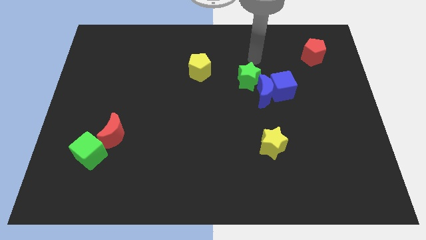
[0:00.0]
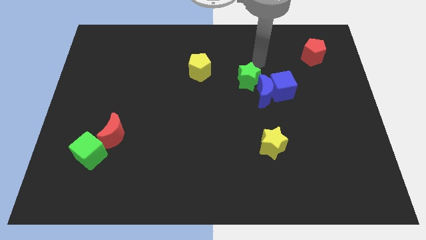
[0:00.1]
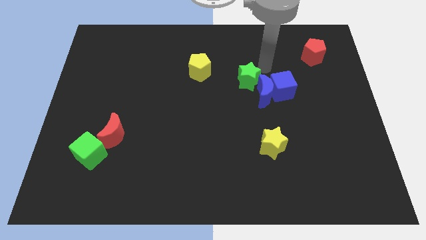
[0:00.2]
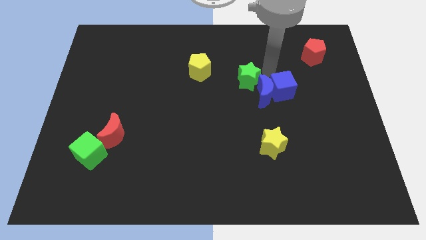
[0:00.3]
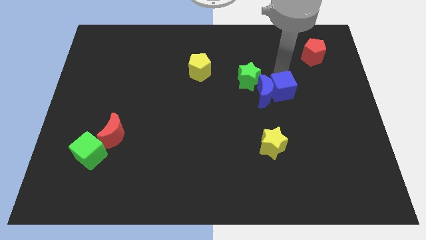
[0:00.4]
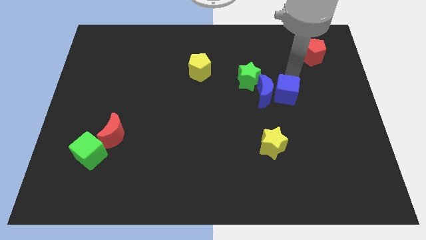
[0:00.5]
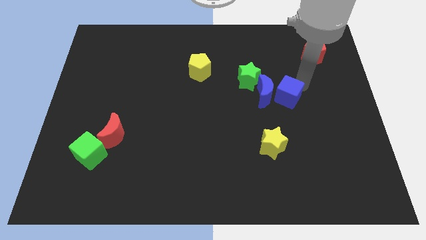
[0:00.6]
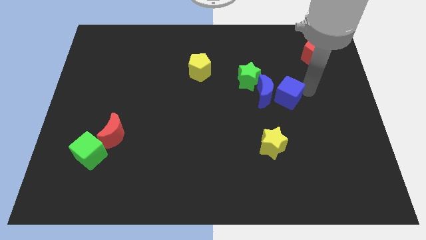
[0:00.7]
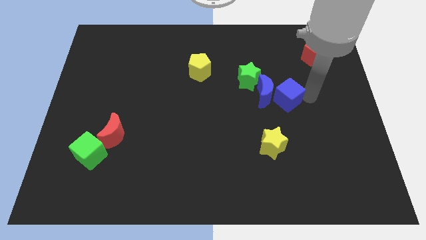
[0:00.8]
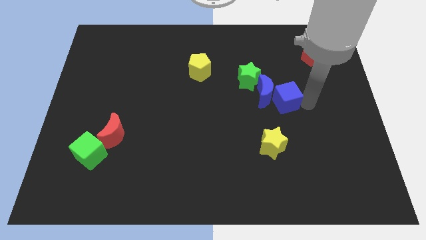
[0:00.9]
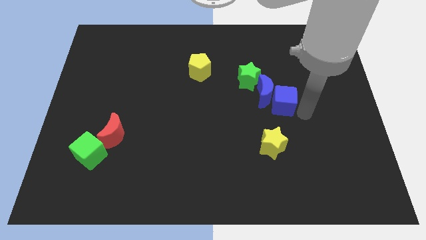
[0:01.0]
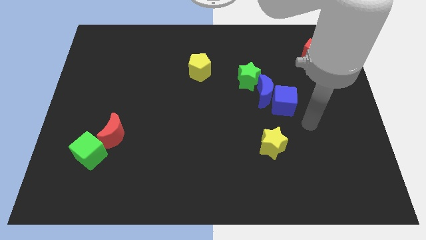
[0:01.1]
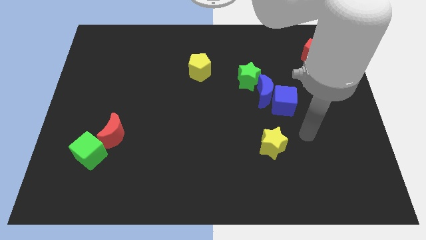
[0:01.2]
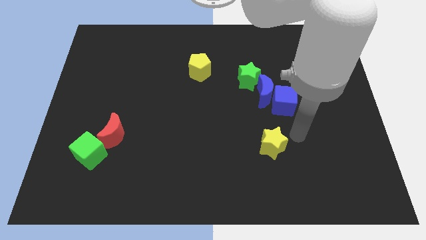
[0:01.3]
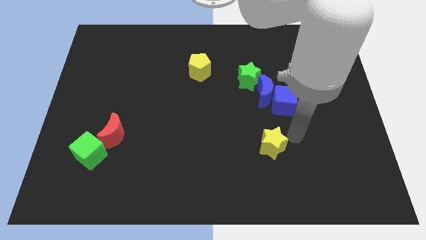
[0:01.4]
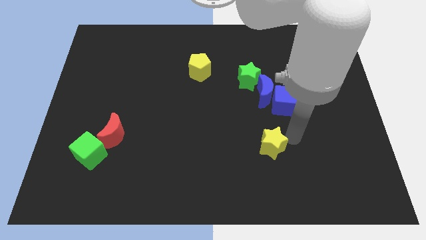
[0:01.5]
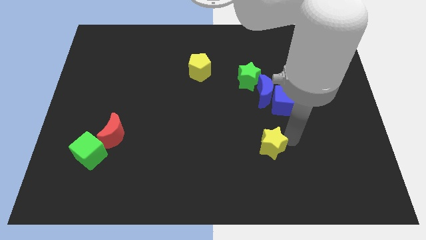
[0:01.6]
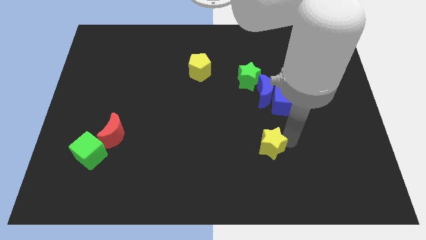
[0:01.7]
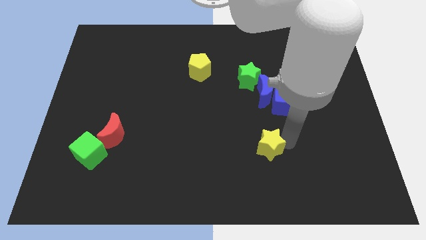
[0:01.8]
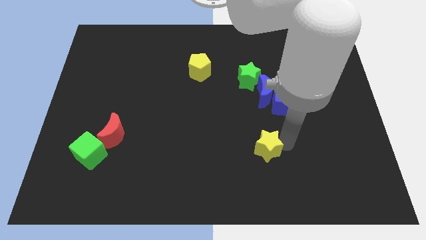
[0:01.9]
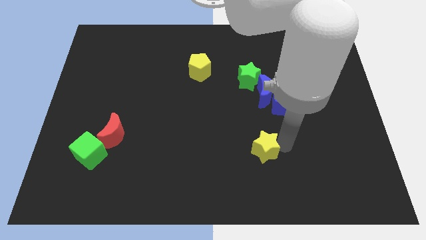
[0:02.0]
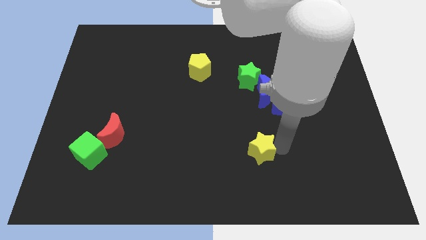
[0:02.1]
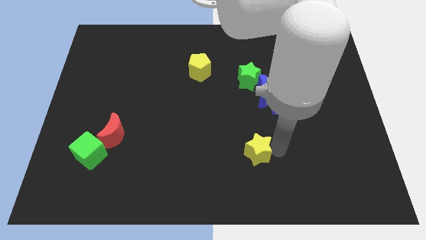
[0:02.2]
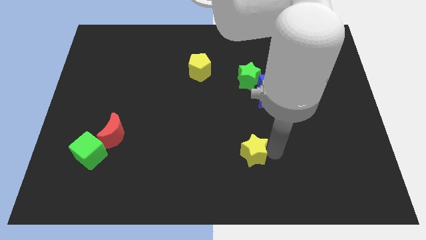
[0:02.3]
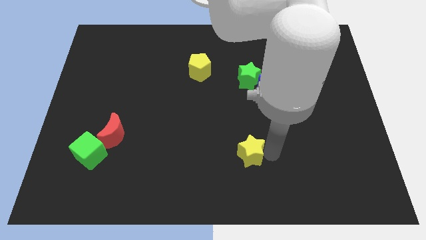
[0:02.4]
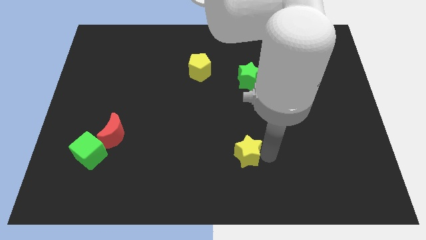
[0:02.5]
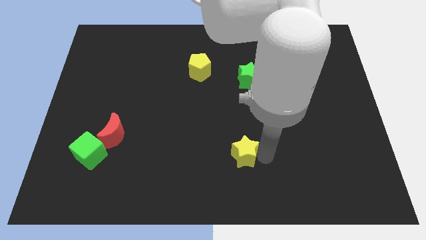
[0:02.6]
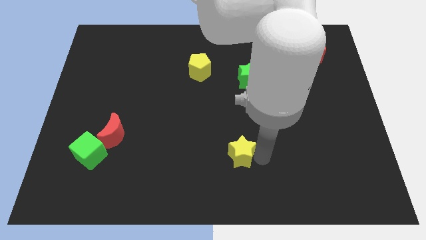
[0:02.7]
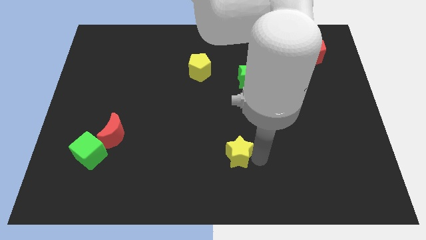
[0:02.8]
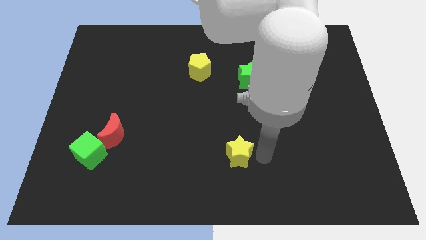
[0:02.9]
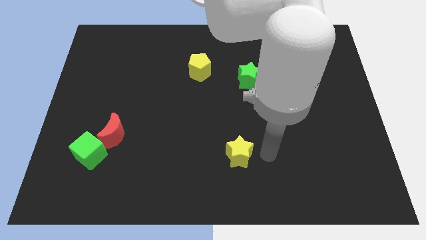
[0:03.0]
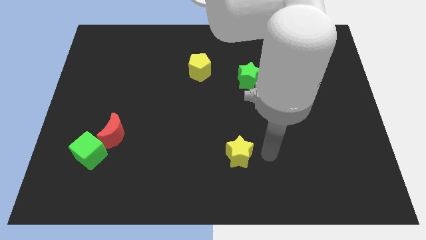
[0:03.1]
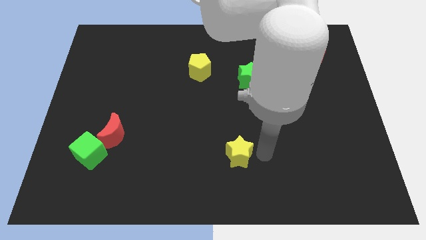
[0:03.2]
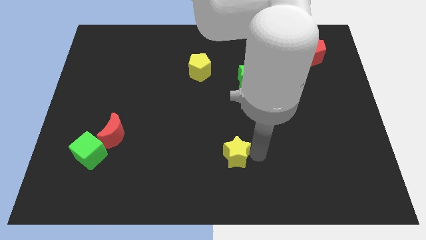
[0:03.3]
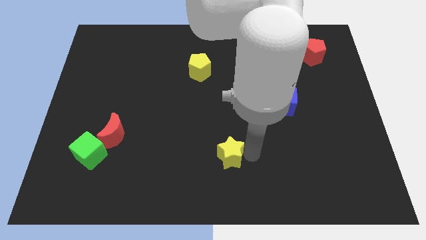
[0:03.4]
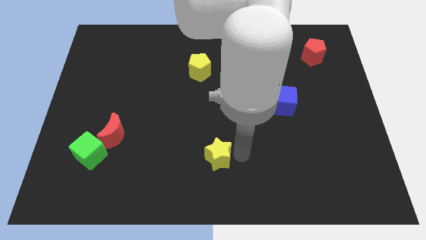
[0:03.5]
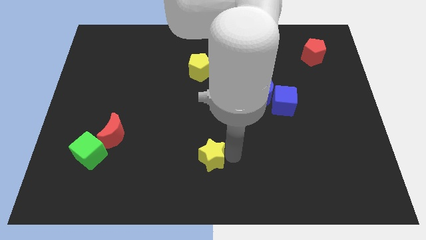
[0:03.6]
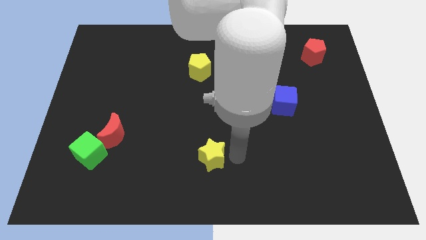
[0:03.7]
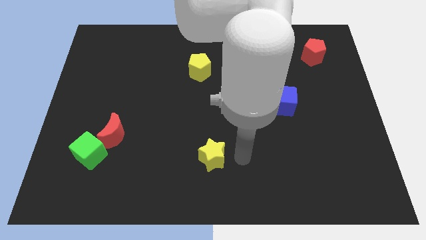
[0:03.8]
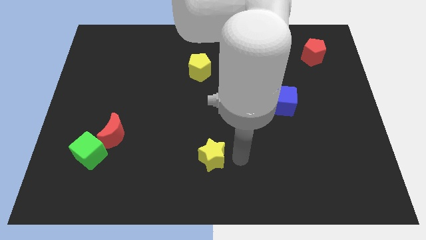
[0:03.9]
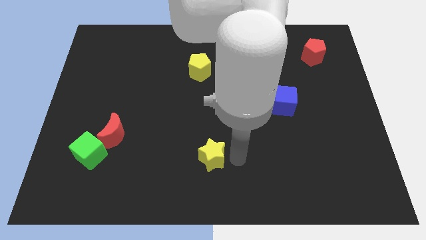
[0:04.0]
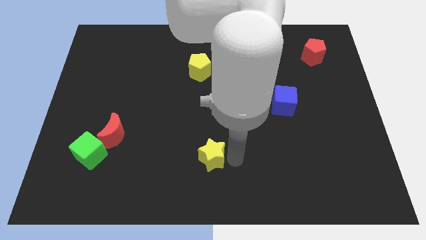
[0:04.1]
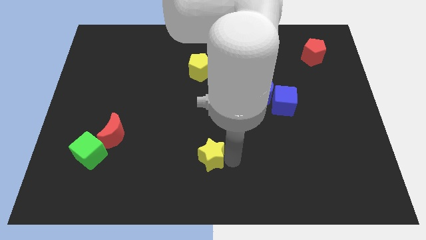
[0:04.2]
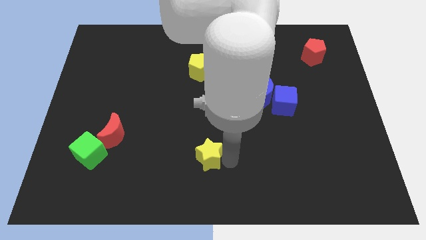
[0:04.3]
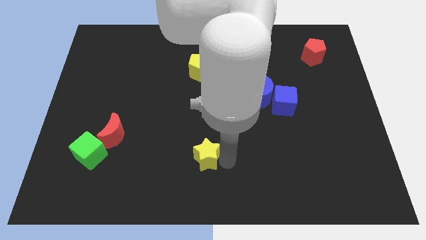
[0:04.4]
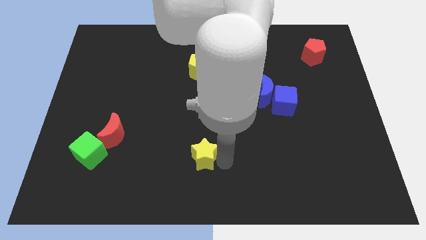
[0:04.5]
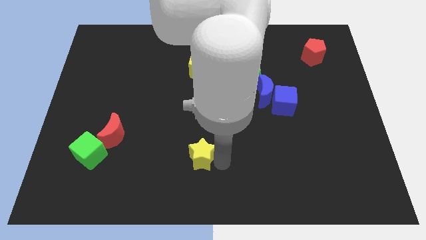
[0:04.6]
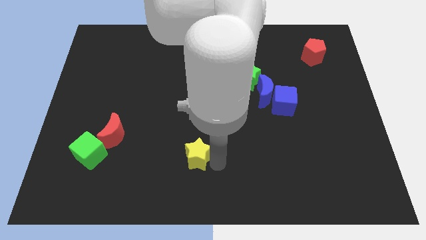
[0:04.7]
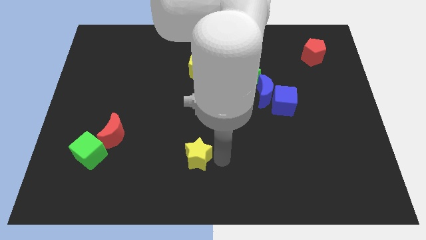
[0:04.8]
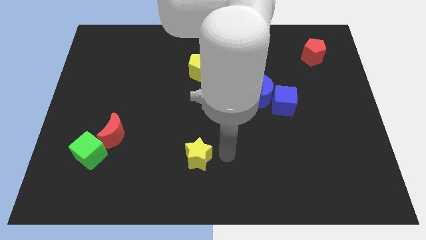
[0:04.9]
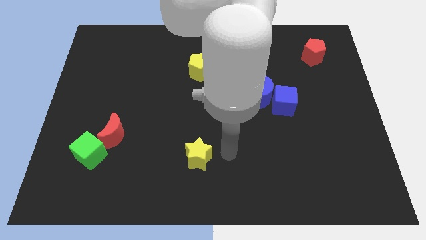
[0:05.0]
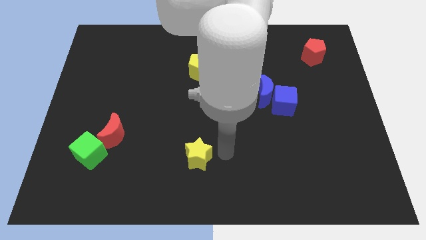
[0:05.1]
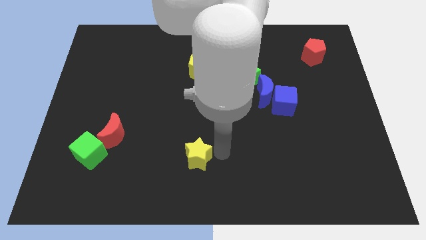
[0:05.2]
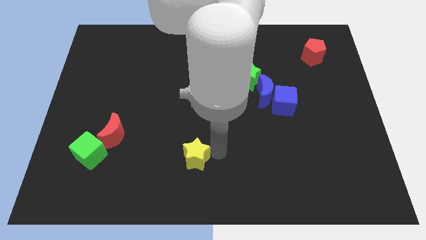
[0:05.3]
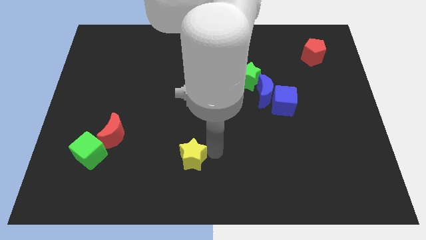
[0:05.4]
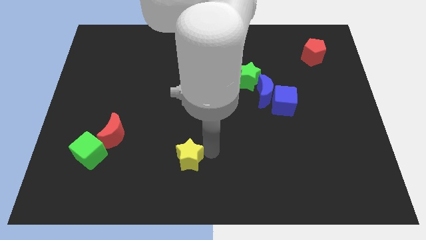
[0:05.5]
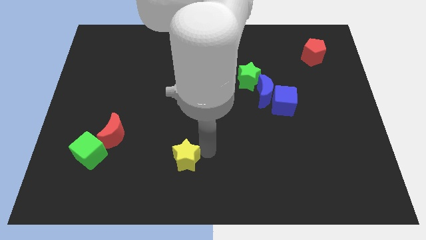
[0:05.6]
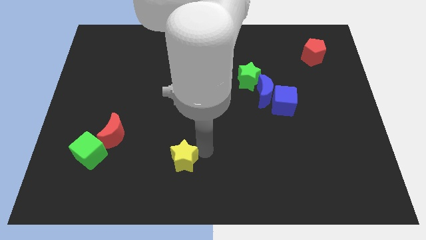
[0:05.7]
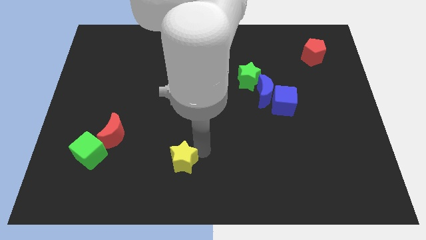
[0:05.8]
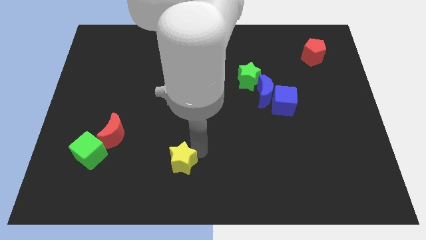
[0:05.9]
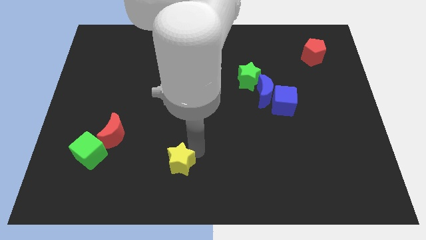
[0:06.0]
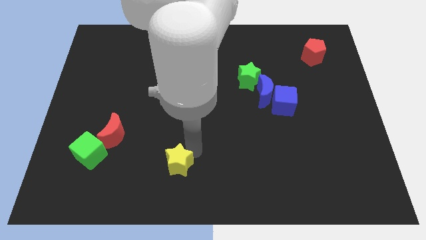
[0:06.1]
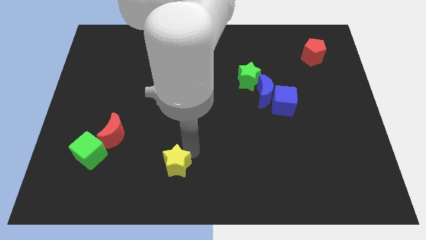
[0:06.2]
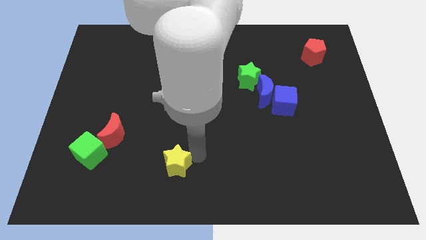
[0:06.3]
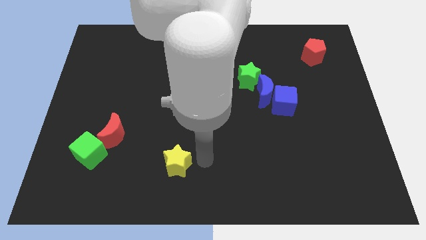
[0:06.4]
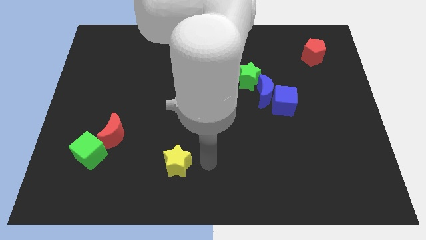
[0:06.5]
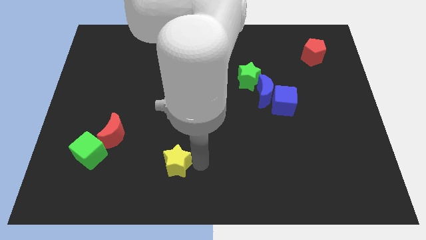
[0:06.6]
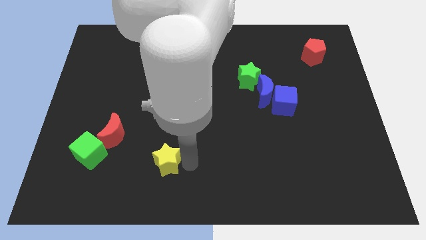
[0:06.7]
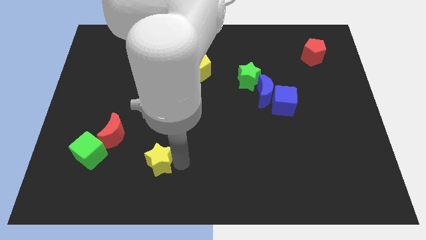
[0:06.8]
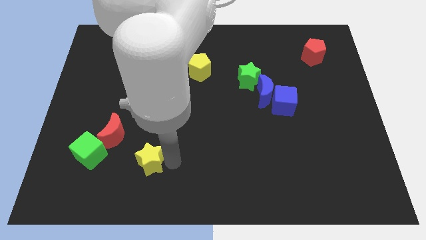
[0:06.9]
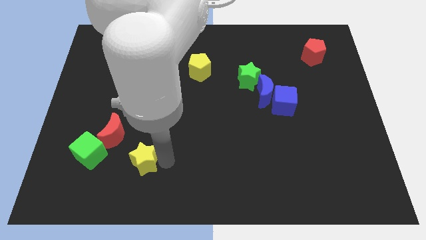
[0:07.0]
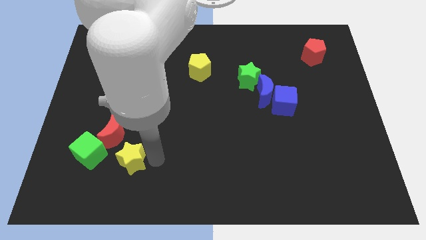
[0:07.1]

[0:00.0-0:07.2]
put the yellow star to the bottom of the red moon

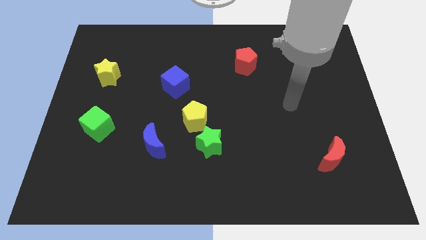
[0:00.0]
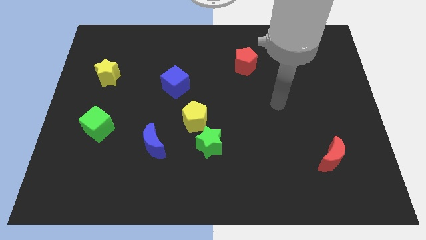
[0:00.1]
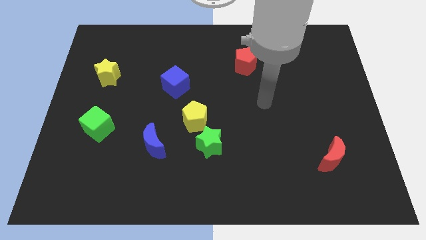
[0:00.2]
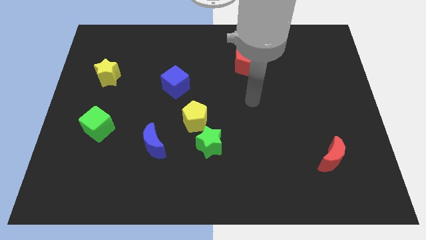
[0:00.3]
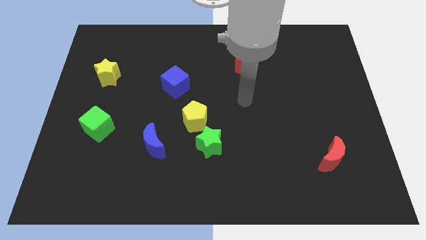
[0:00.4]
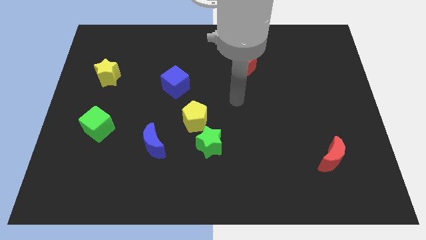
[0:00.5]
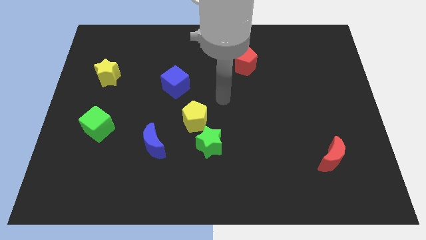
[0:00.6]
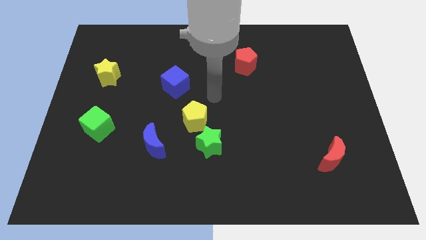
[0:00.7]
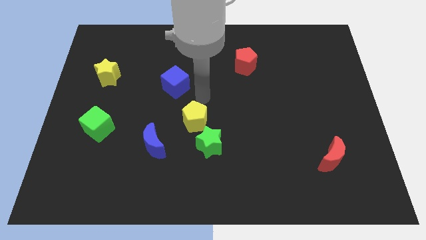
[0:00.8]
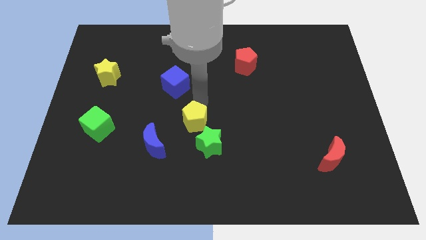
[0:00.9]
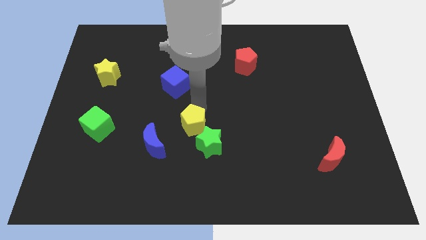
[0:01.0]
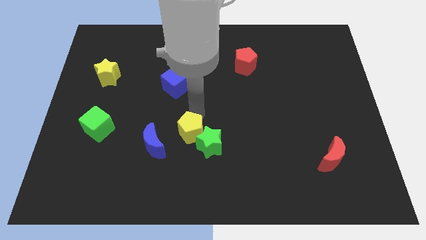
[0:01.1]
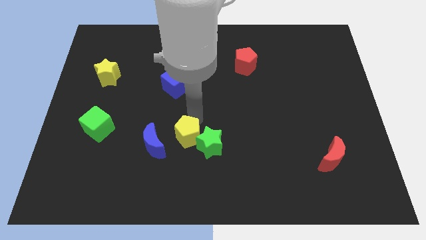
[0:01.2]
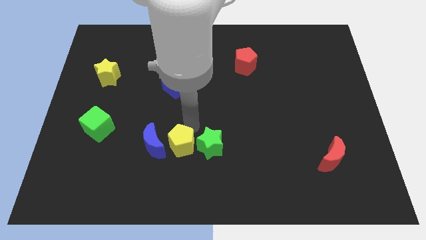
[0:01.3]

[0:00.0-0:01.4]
put the yellow pentagon to the bottom left of the green star
